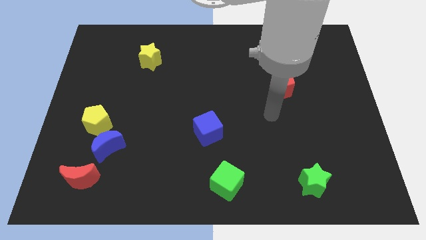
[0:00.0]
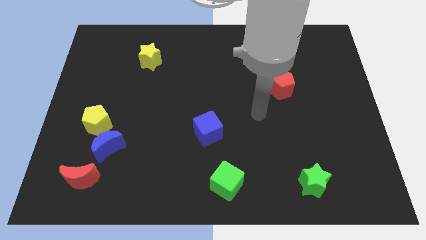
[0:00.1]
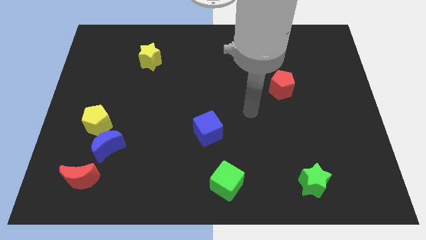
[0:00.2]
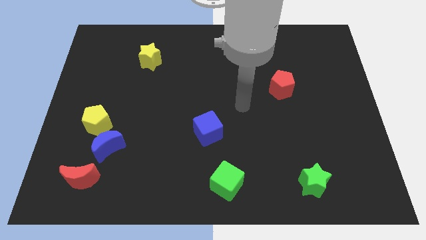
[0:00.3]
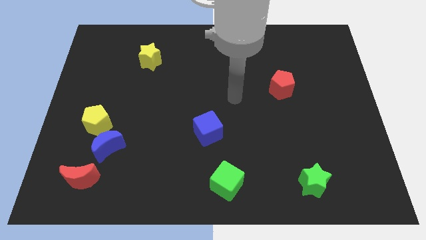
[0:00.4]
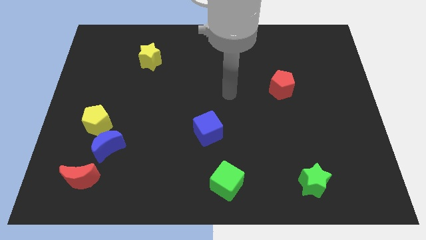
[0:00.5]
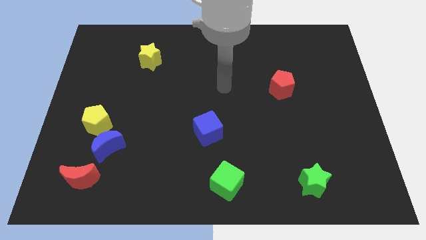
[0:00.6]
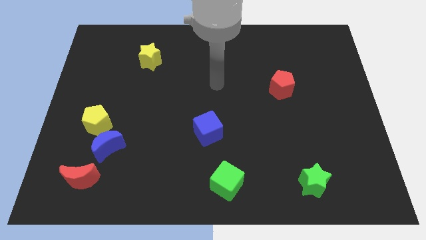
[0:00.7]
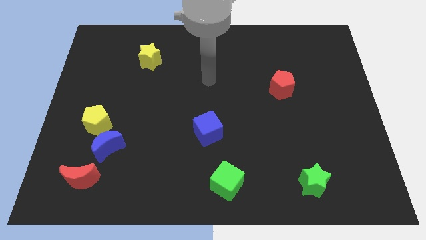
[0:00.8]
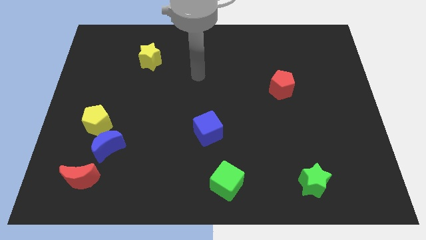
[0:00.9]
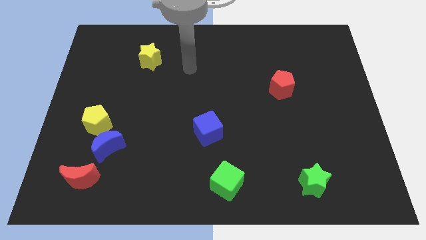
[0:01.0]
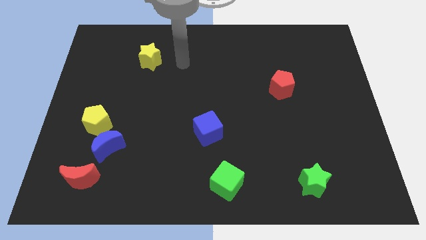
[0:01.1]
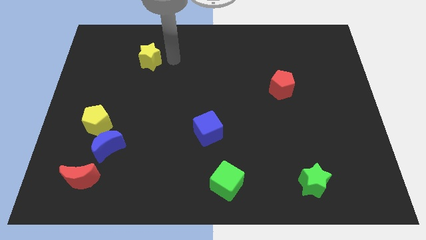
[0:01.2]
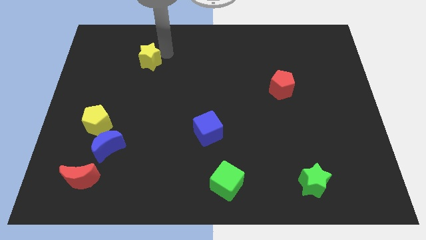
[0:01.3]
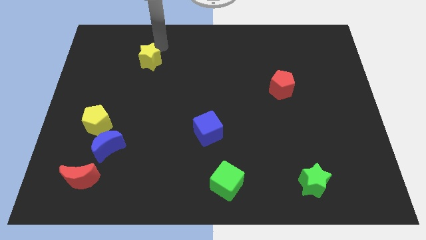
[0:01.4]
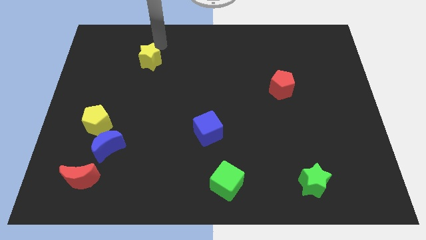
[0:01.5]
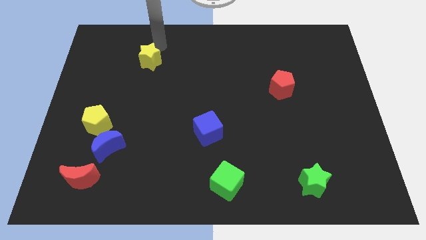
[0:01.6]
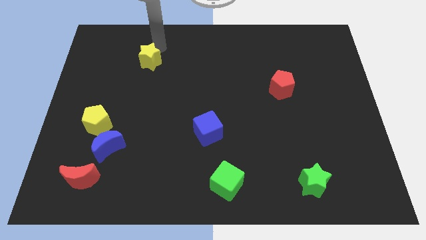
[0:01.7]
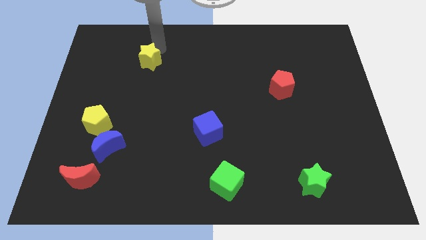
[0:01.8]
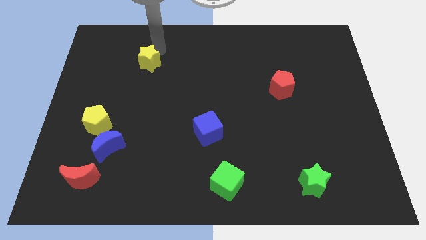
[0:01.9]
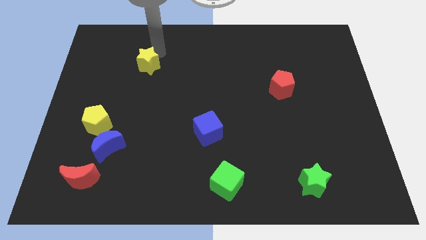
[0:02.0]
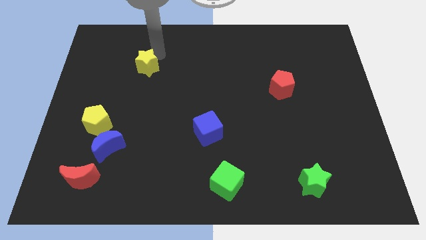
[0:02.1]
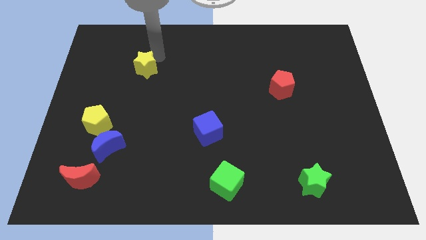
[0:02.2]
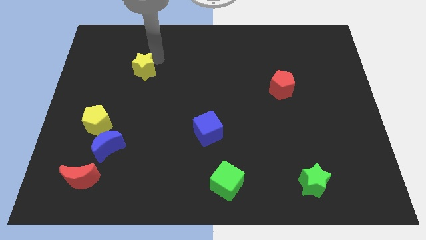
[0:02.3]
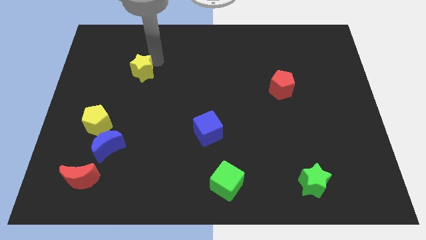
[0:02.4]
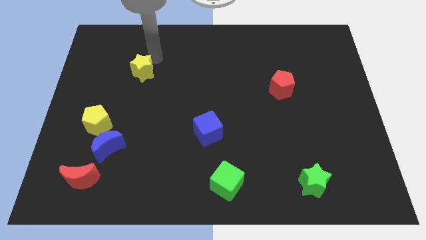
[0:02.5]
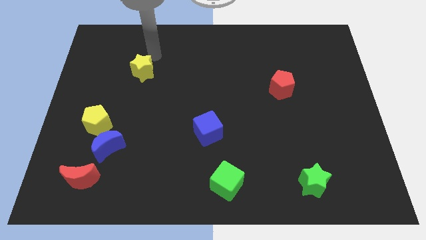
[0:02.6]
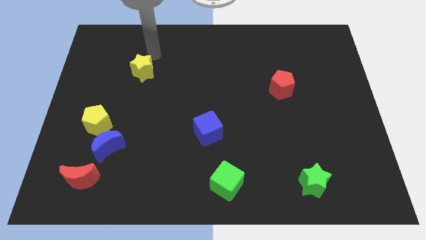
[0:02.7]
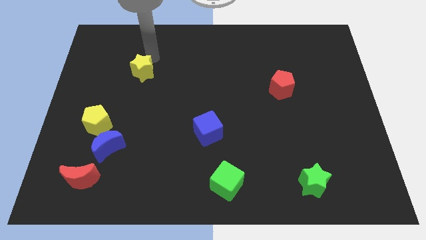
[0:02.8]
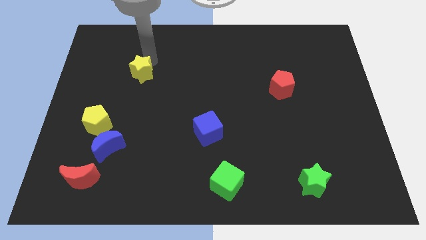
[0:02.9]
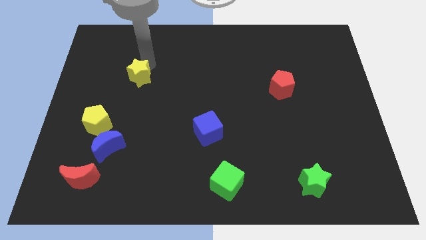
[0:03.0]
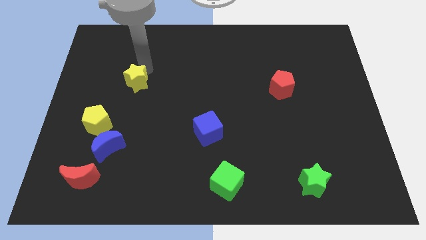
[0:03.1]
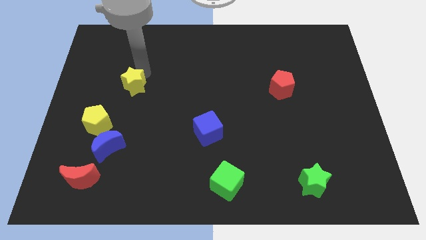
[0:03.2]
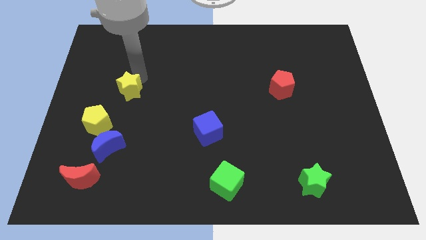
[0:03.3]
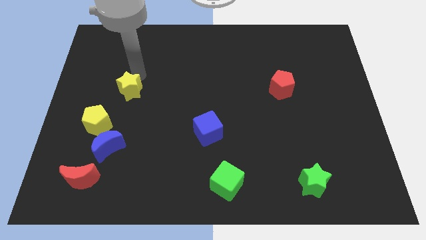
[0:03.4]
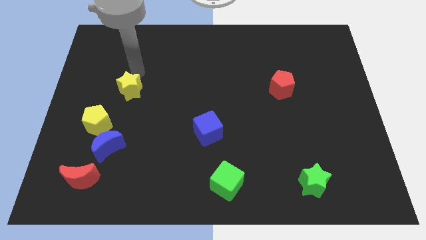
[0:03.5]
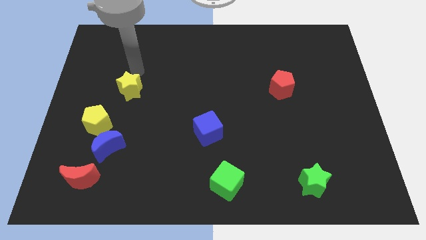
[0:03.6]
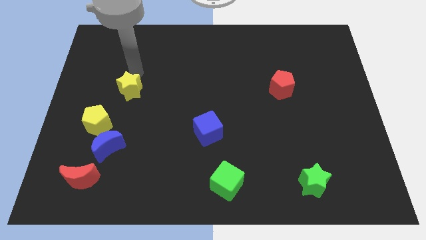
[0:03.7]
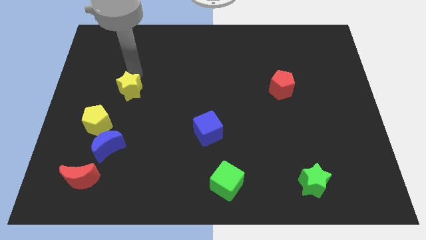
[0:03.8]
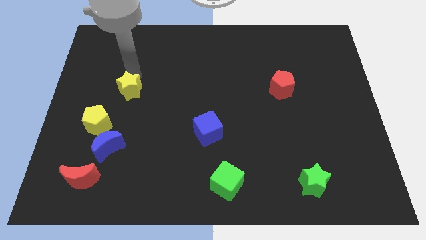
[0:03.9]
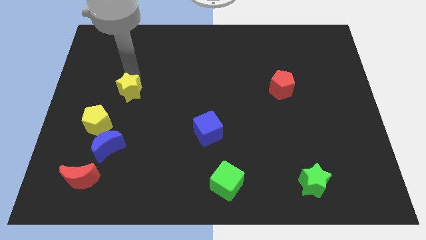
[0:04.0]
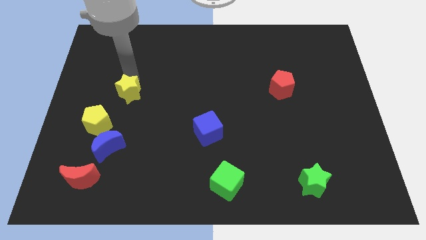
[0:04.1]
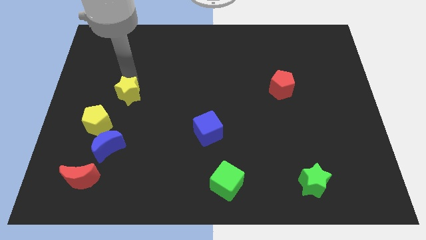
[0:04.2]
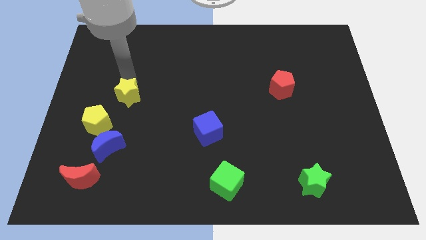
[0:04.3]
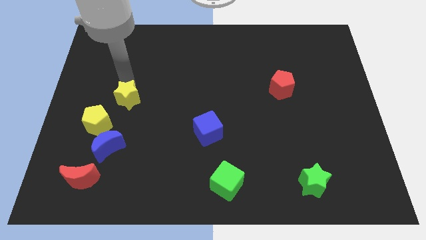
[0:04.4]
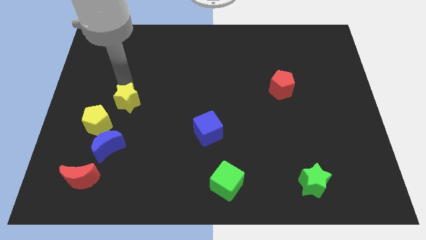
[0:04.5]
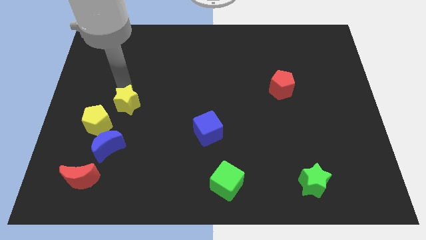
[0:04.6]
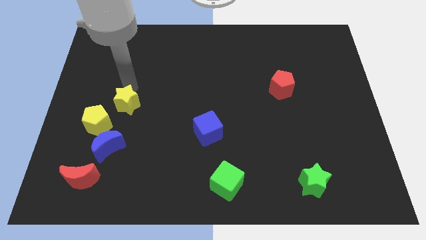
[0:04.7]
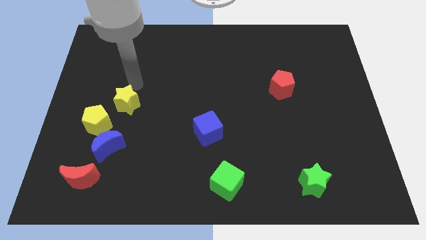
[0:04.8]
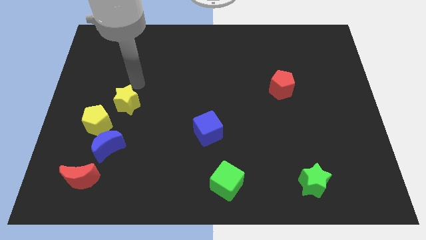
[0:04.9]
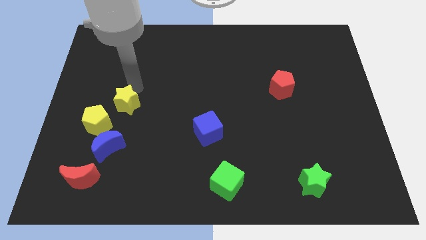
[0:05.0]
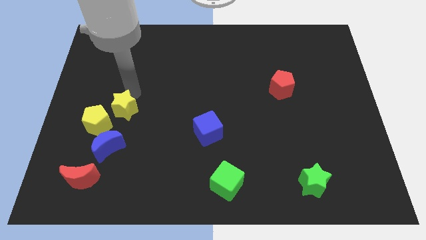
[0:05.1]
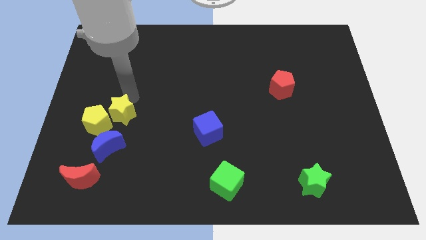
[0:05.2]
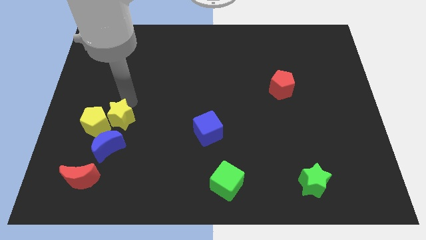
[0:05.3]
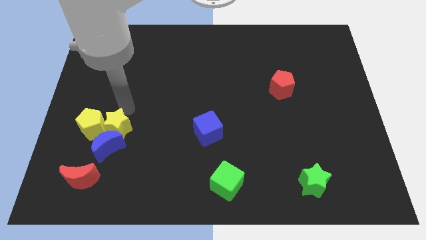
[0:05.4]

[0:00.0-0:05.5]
slide the yellow star next to the blue moon

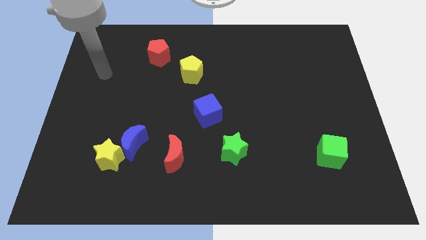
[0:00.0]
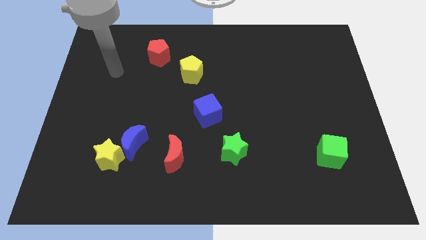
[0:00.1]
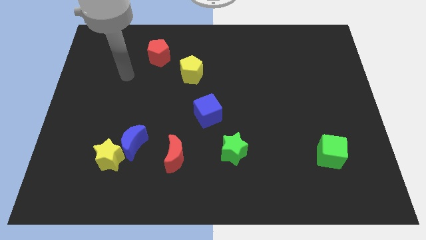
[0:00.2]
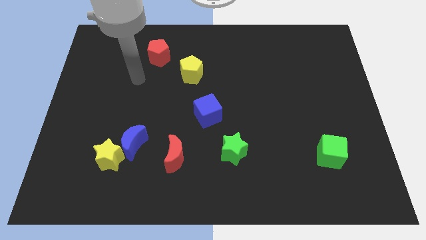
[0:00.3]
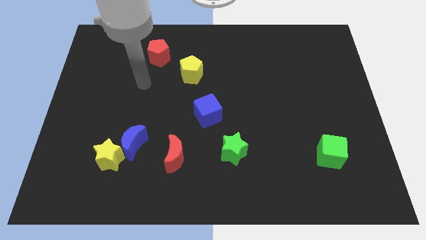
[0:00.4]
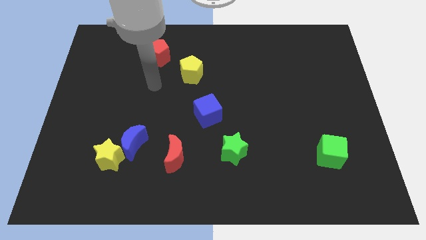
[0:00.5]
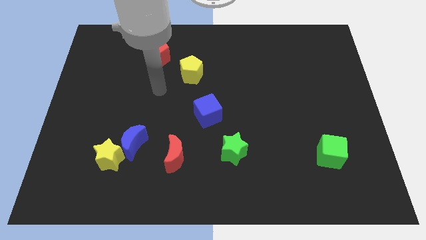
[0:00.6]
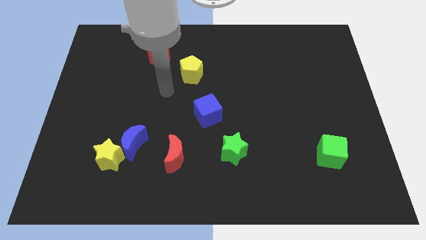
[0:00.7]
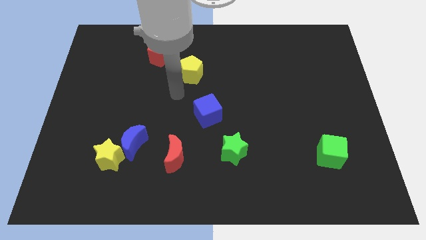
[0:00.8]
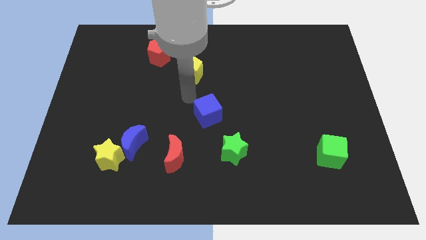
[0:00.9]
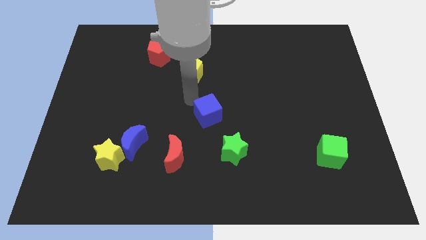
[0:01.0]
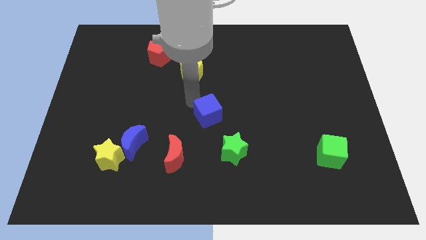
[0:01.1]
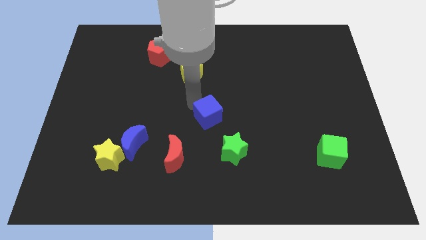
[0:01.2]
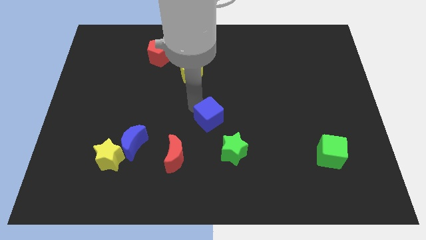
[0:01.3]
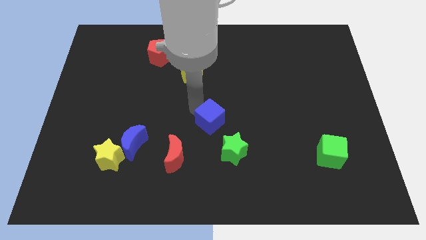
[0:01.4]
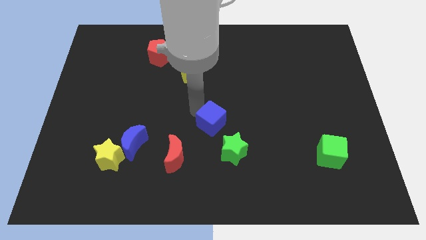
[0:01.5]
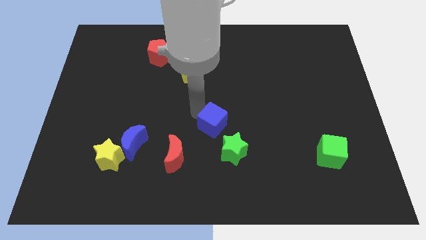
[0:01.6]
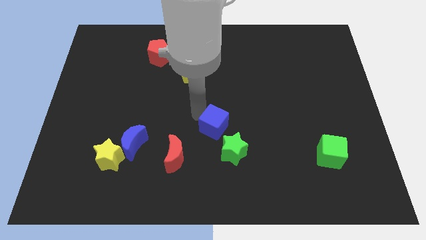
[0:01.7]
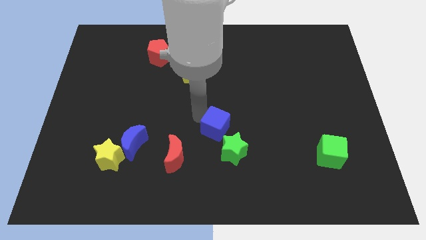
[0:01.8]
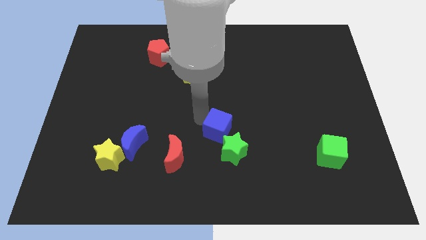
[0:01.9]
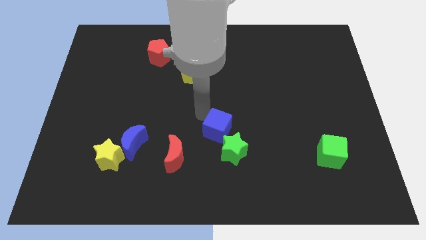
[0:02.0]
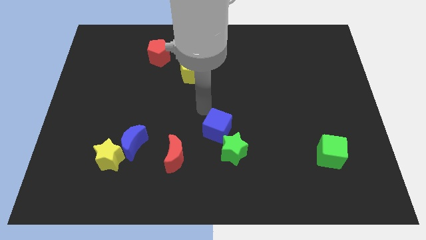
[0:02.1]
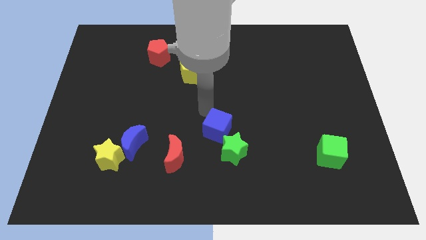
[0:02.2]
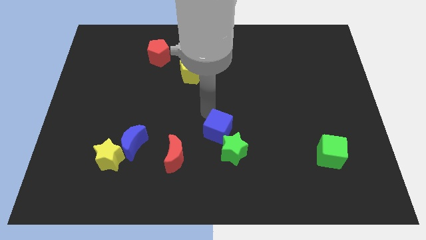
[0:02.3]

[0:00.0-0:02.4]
push the blue cube to the green star
